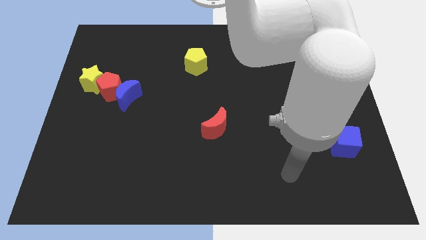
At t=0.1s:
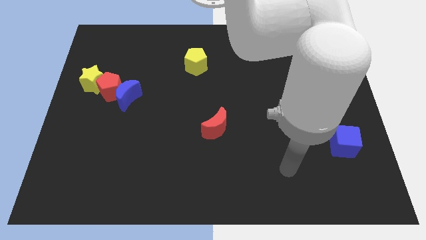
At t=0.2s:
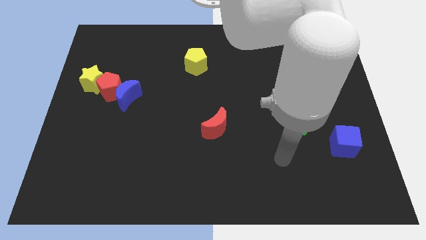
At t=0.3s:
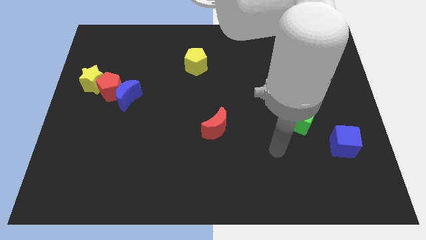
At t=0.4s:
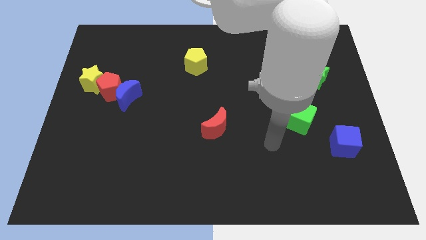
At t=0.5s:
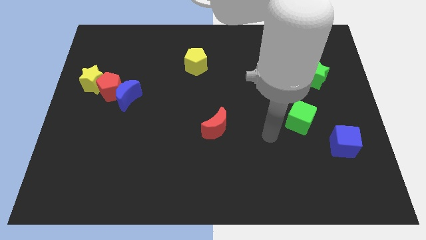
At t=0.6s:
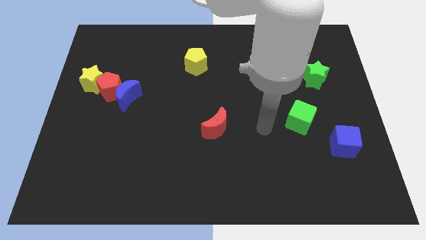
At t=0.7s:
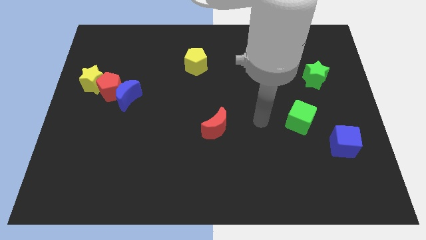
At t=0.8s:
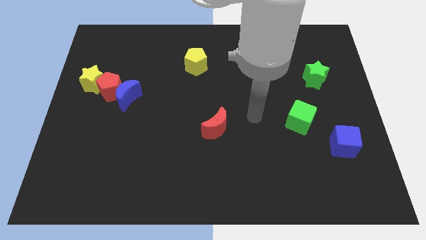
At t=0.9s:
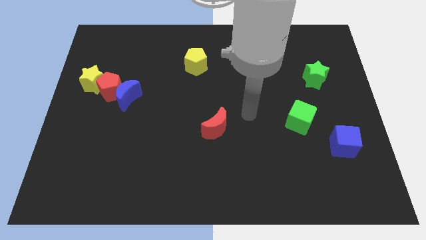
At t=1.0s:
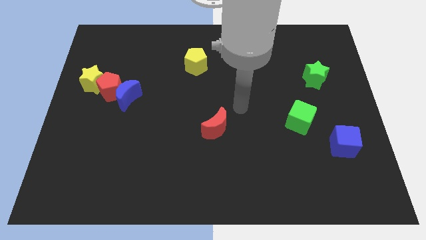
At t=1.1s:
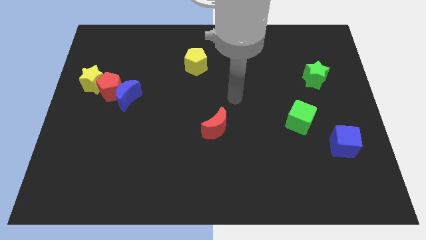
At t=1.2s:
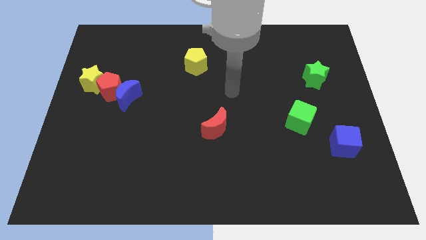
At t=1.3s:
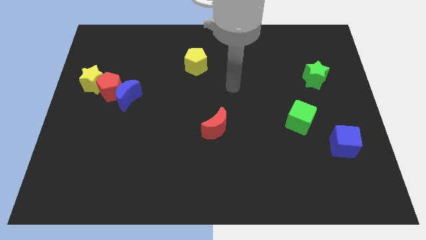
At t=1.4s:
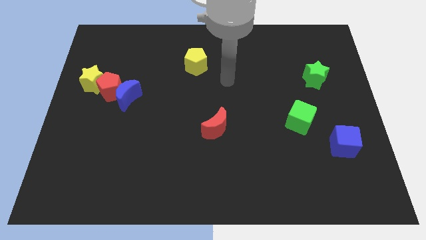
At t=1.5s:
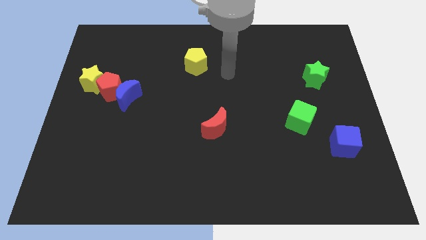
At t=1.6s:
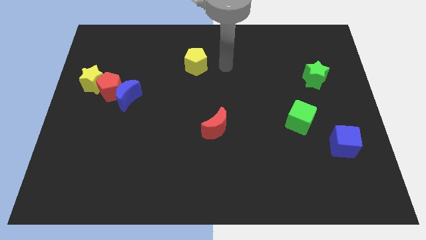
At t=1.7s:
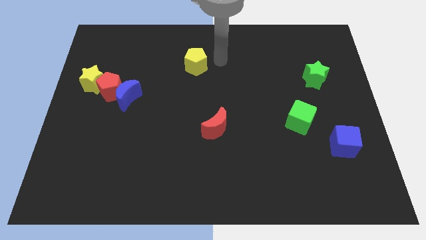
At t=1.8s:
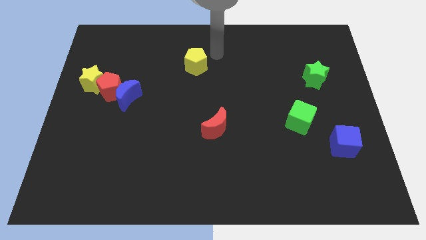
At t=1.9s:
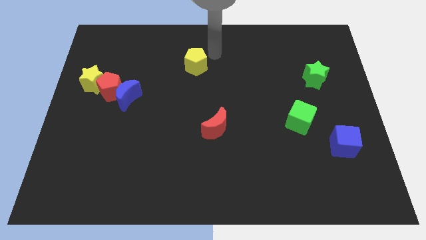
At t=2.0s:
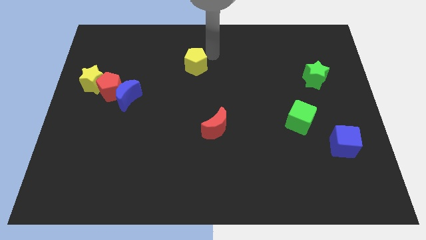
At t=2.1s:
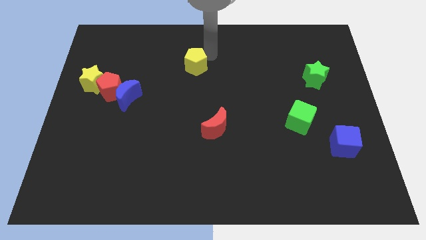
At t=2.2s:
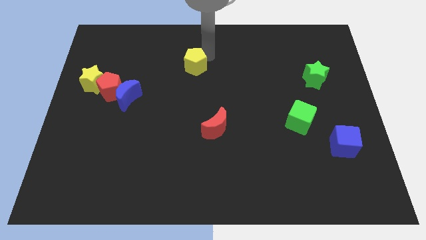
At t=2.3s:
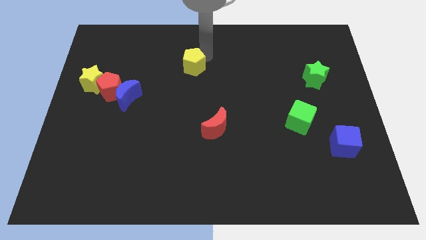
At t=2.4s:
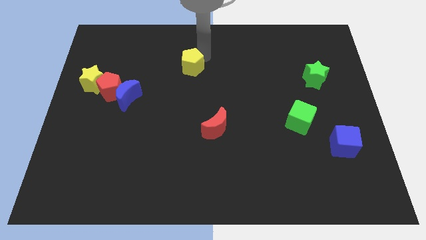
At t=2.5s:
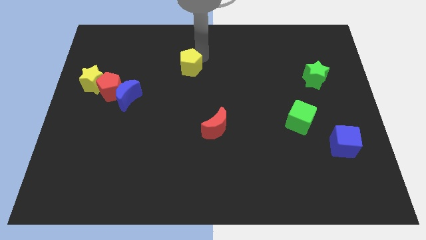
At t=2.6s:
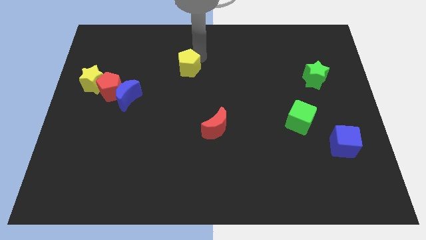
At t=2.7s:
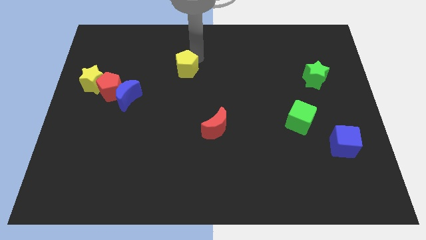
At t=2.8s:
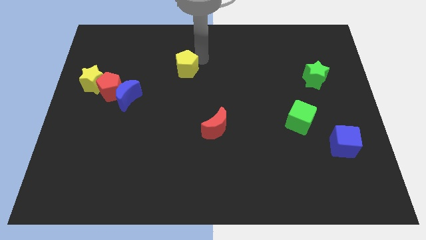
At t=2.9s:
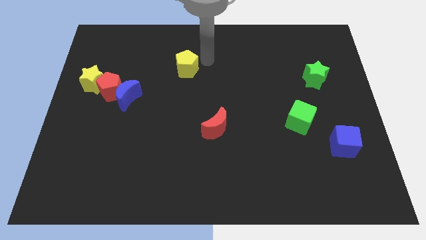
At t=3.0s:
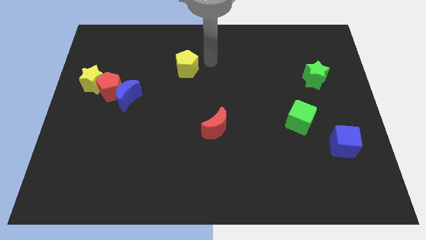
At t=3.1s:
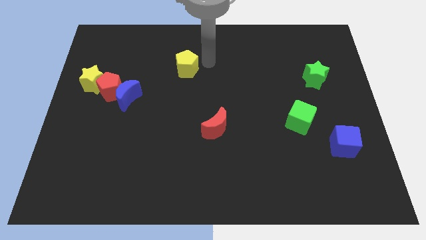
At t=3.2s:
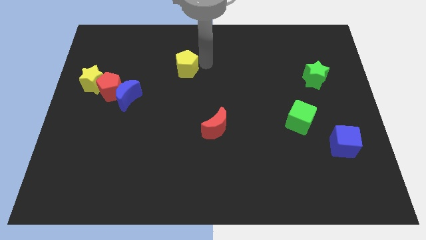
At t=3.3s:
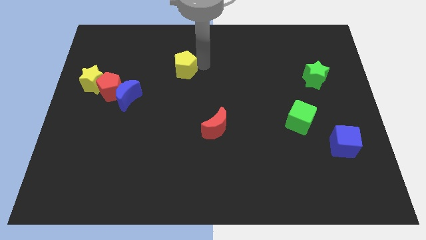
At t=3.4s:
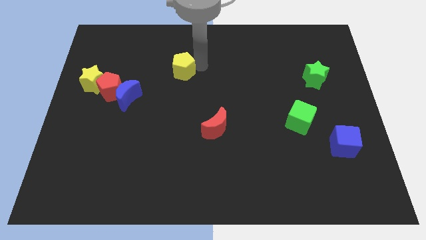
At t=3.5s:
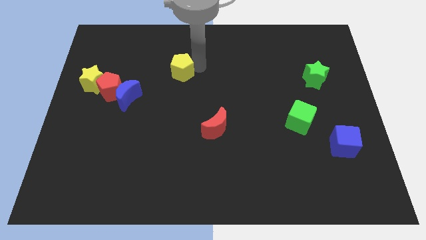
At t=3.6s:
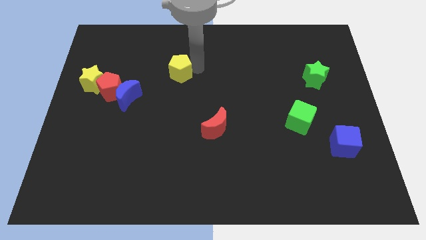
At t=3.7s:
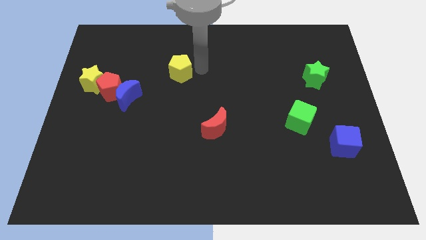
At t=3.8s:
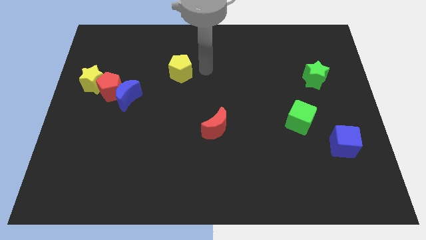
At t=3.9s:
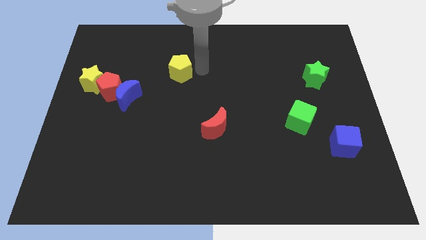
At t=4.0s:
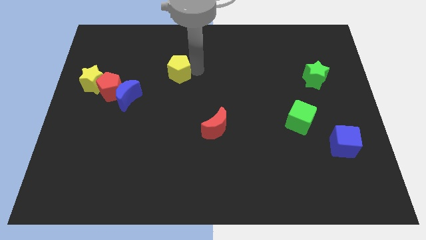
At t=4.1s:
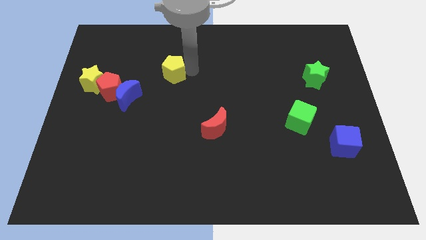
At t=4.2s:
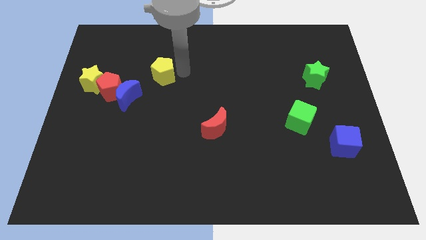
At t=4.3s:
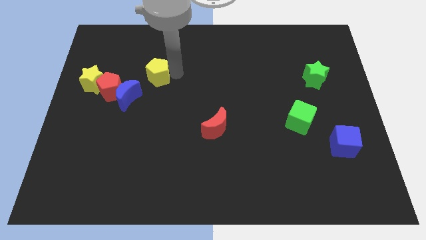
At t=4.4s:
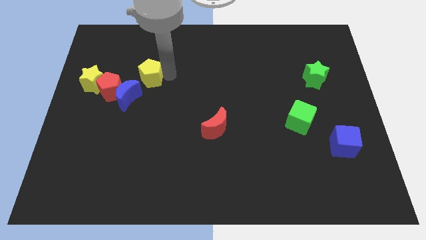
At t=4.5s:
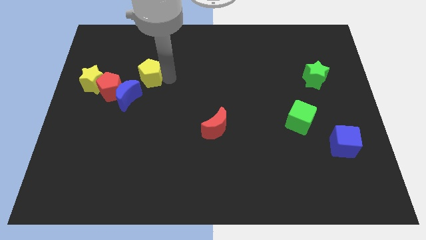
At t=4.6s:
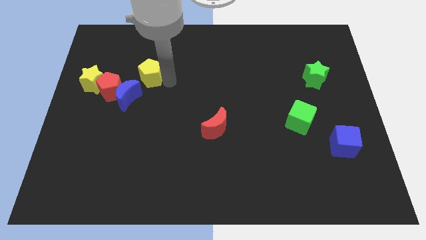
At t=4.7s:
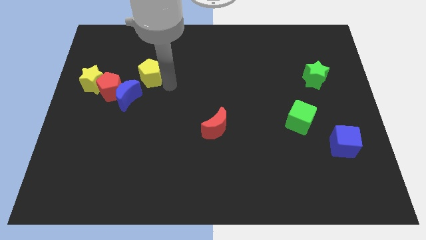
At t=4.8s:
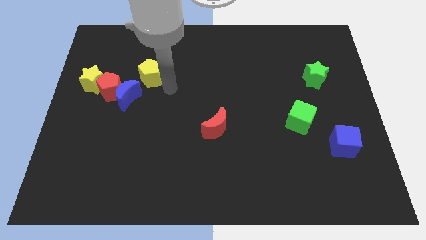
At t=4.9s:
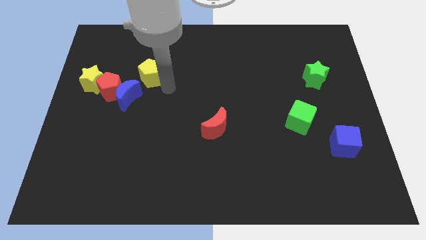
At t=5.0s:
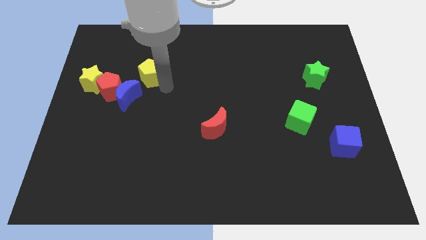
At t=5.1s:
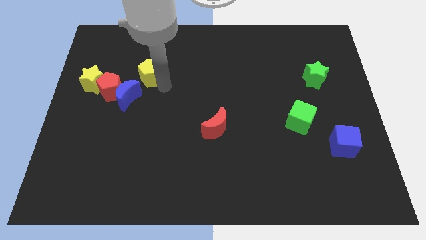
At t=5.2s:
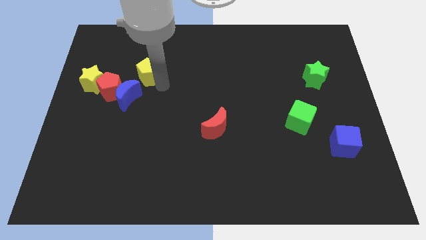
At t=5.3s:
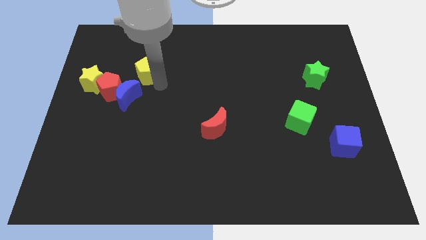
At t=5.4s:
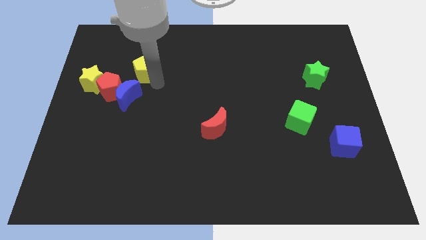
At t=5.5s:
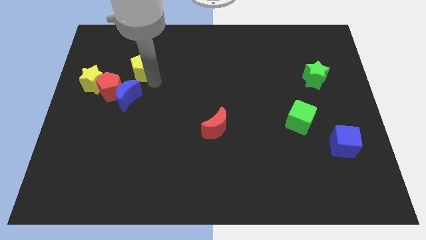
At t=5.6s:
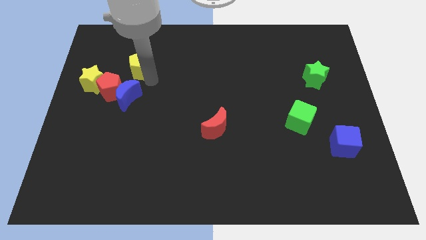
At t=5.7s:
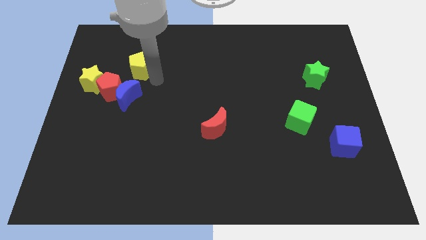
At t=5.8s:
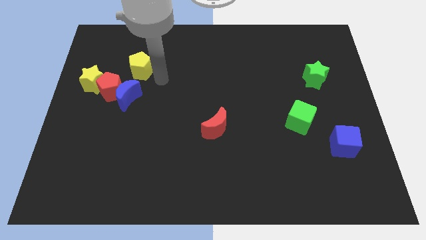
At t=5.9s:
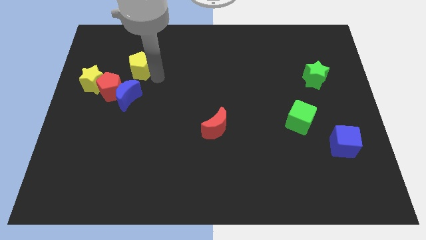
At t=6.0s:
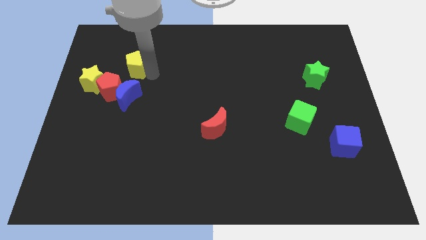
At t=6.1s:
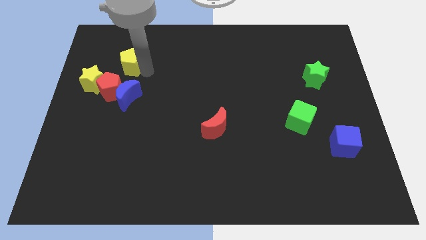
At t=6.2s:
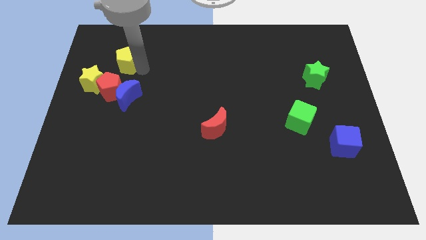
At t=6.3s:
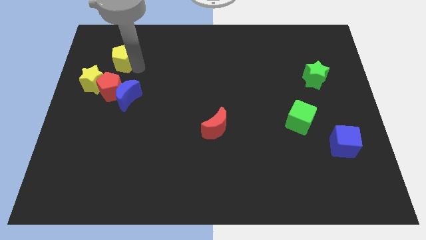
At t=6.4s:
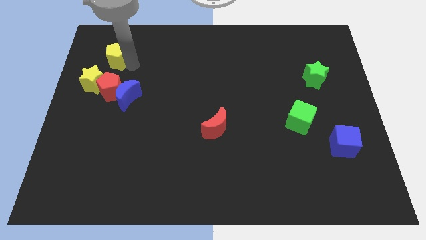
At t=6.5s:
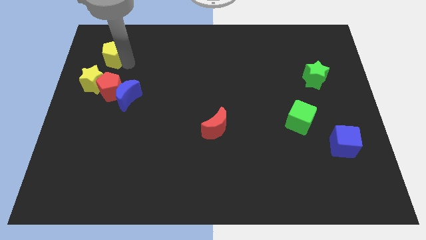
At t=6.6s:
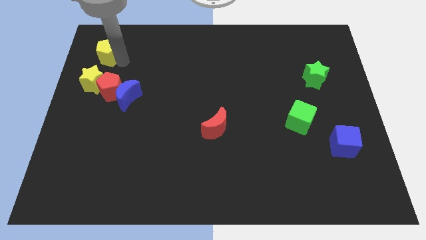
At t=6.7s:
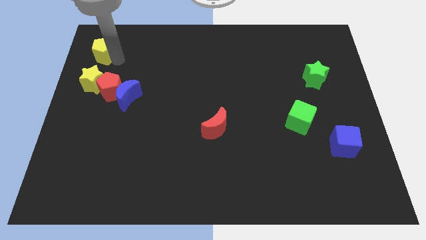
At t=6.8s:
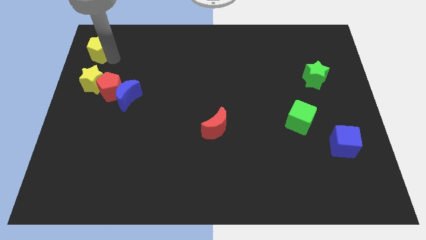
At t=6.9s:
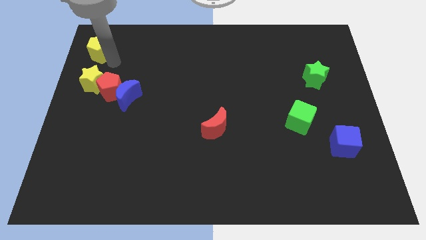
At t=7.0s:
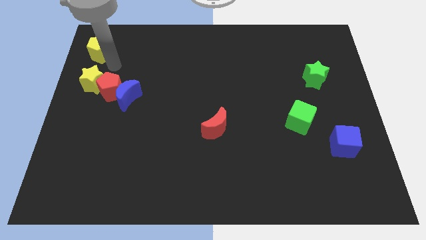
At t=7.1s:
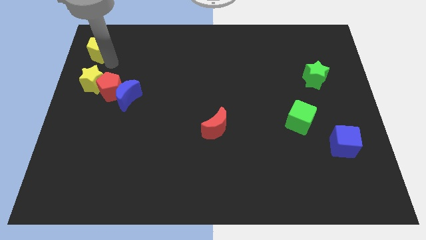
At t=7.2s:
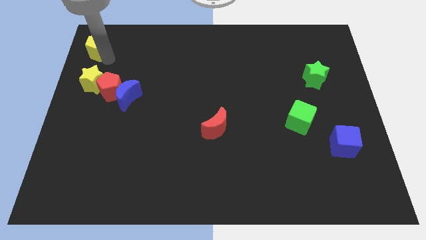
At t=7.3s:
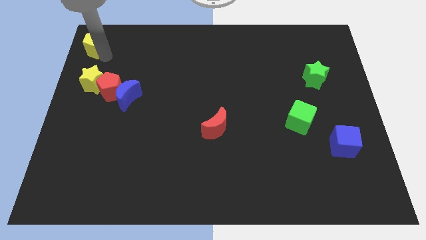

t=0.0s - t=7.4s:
put the yellow pentagon to the top left corner
